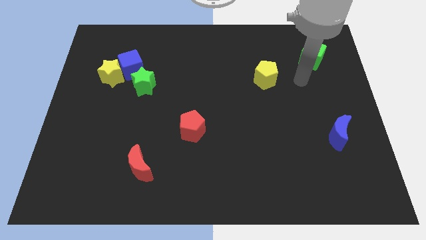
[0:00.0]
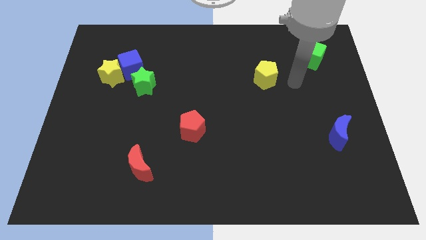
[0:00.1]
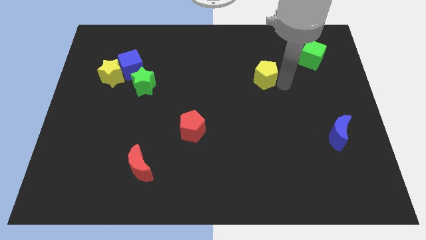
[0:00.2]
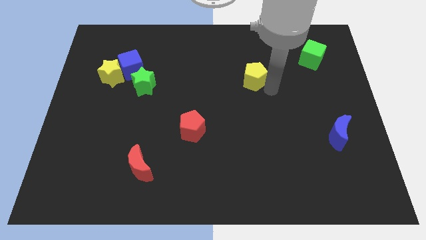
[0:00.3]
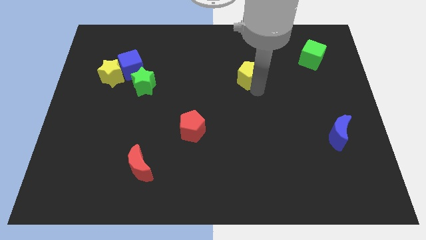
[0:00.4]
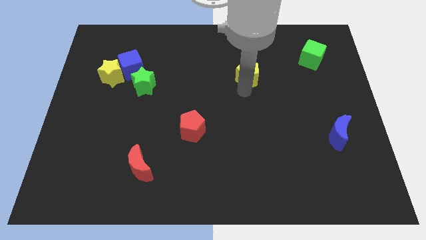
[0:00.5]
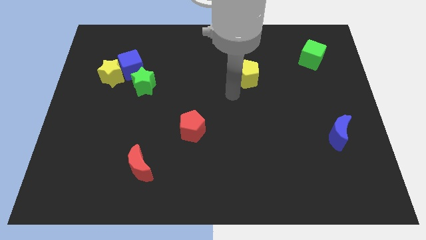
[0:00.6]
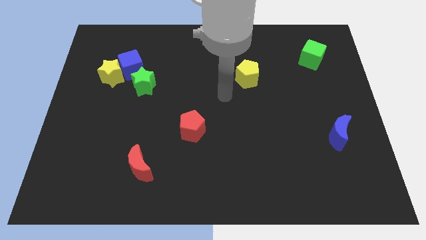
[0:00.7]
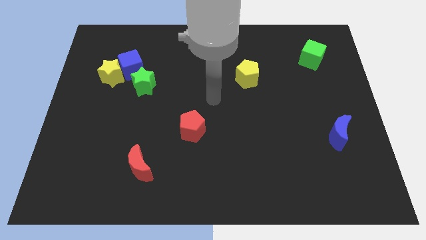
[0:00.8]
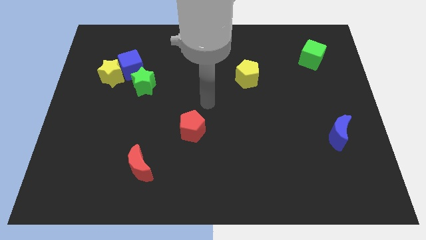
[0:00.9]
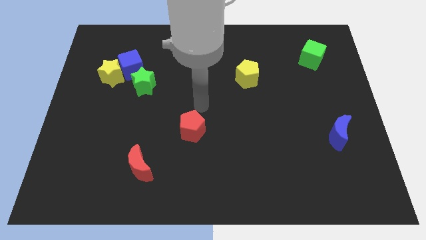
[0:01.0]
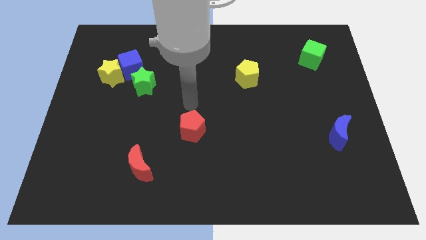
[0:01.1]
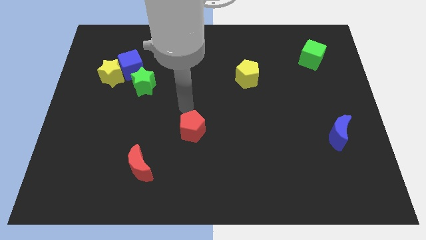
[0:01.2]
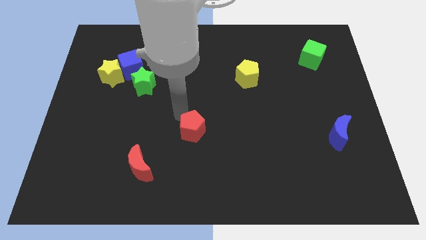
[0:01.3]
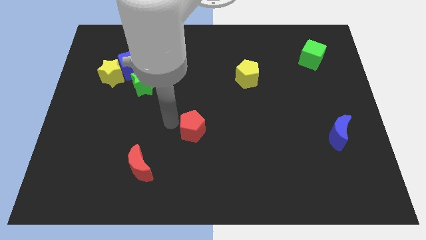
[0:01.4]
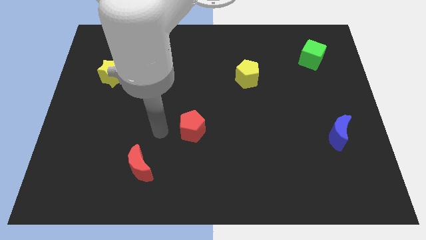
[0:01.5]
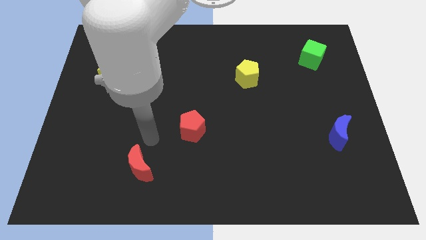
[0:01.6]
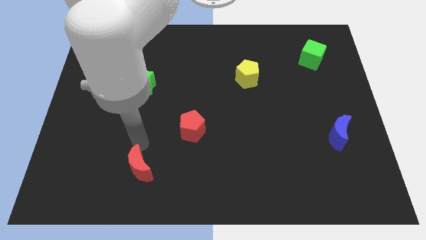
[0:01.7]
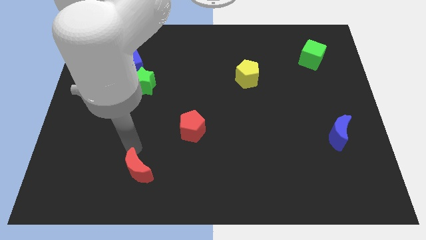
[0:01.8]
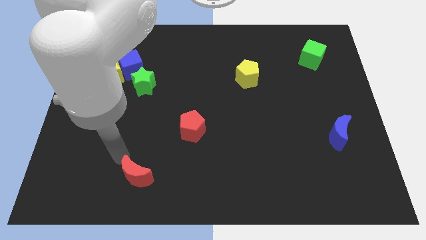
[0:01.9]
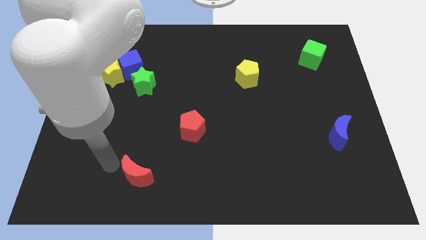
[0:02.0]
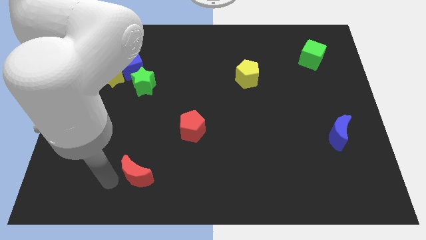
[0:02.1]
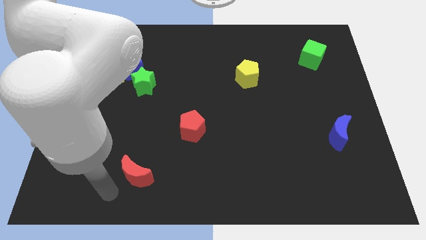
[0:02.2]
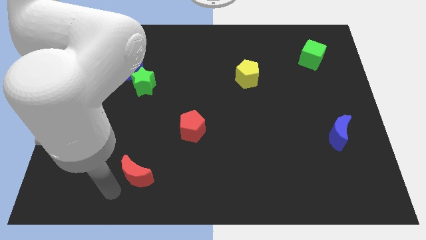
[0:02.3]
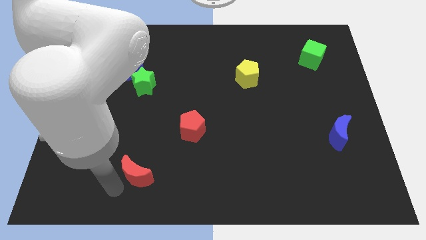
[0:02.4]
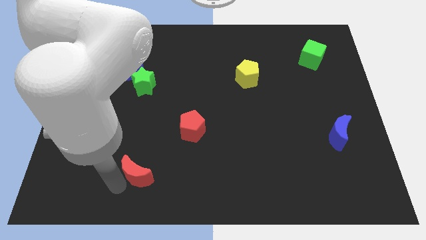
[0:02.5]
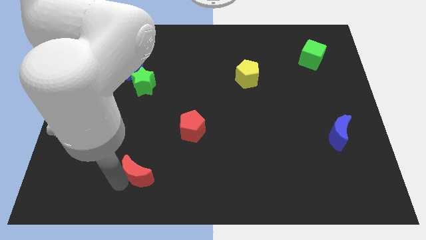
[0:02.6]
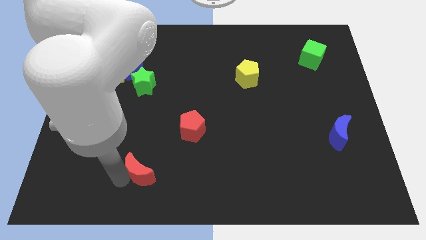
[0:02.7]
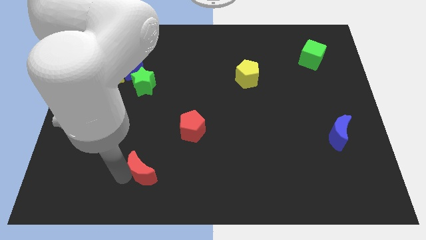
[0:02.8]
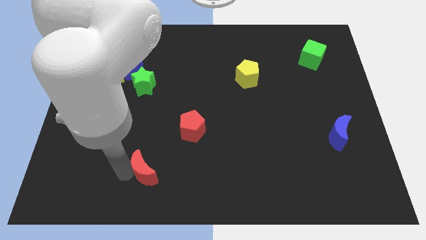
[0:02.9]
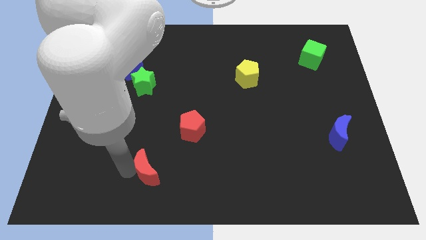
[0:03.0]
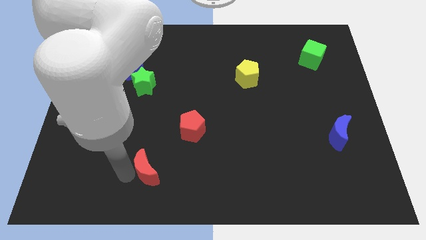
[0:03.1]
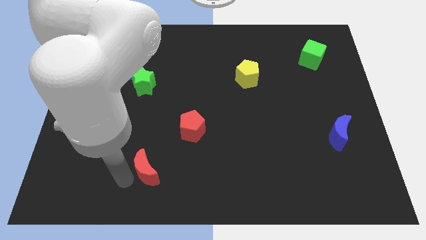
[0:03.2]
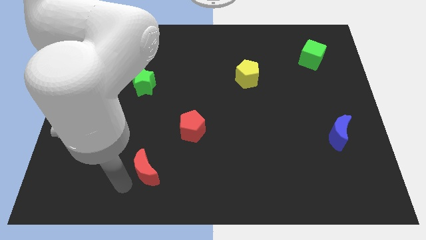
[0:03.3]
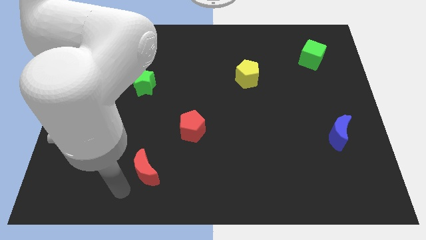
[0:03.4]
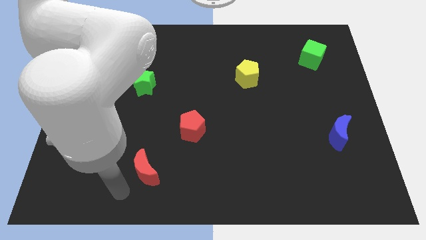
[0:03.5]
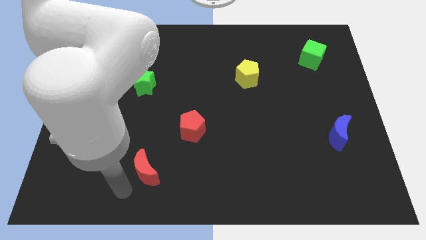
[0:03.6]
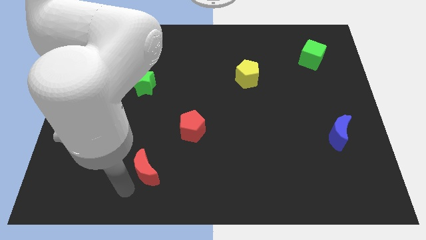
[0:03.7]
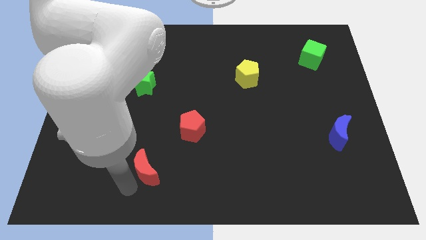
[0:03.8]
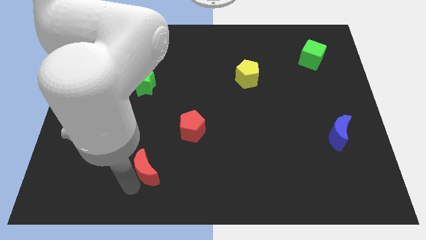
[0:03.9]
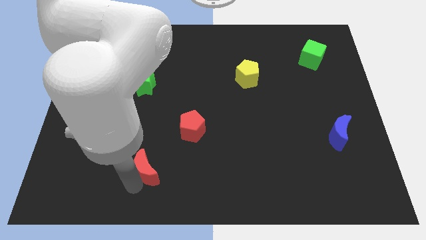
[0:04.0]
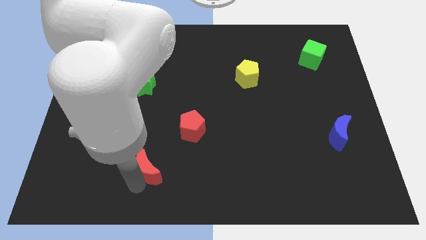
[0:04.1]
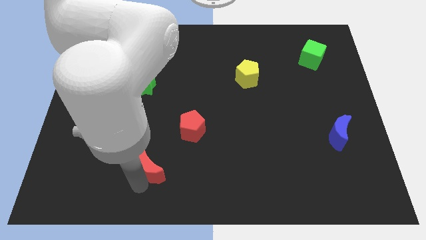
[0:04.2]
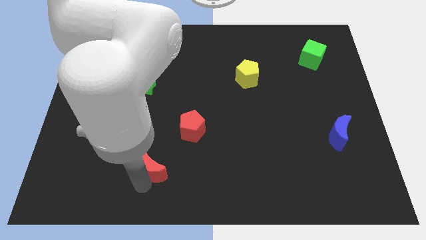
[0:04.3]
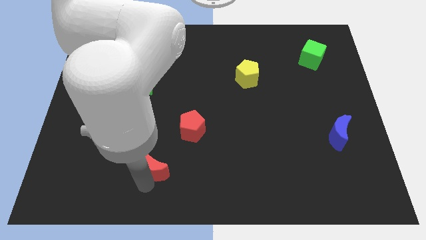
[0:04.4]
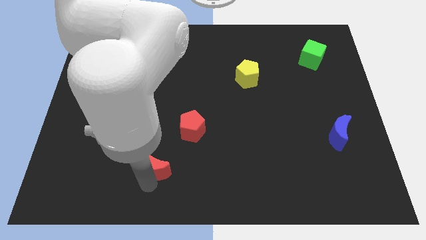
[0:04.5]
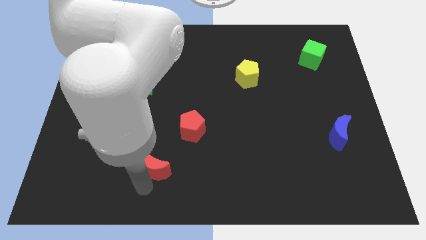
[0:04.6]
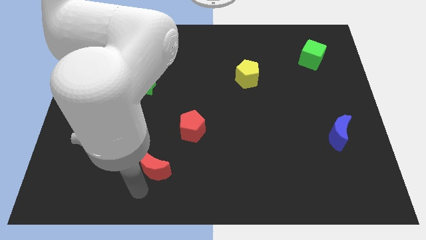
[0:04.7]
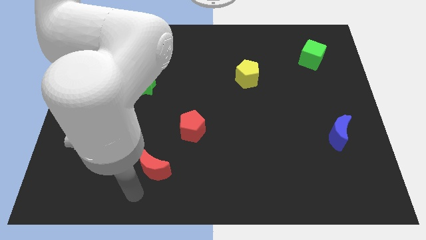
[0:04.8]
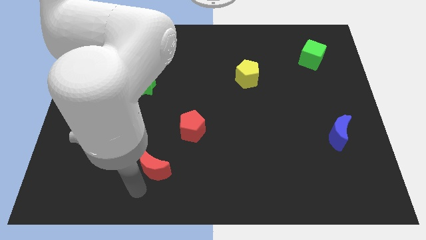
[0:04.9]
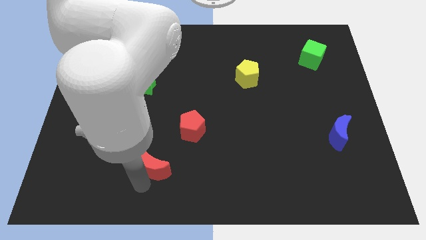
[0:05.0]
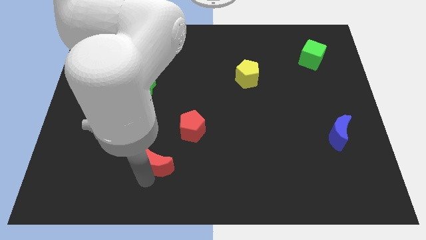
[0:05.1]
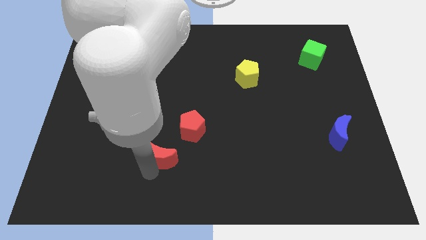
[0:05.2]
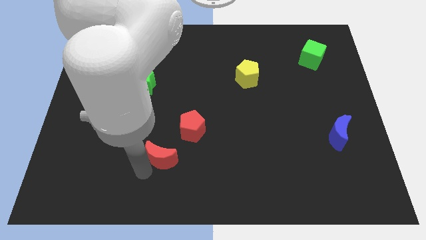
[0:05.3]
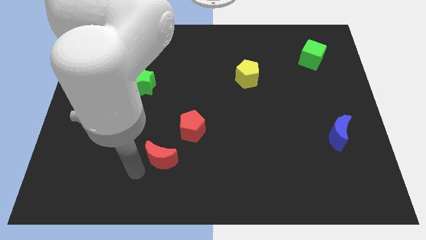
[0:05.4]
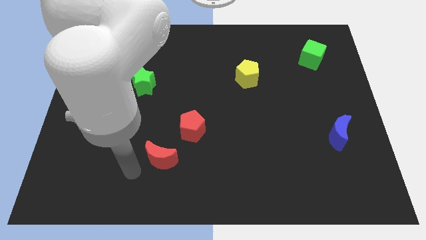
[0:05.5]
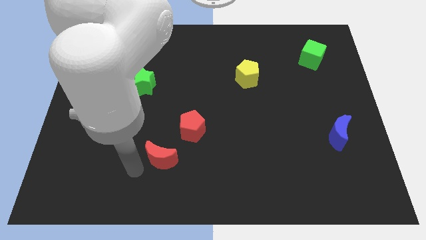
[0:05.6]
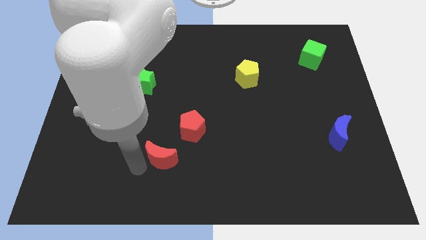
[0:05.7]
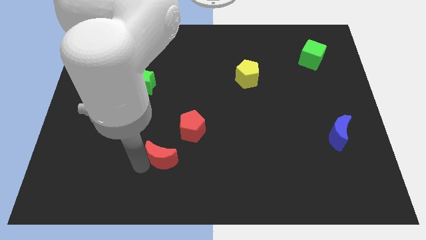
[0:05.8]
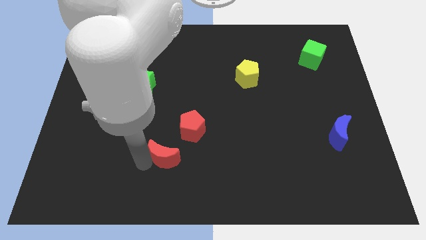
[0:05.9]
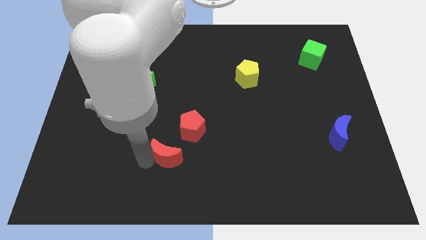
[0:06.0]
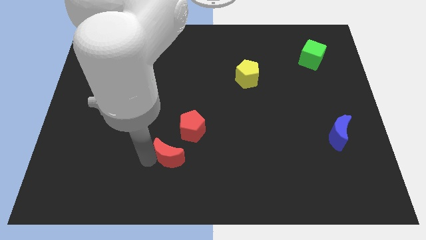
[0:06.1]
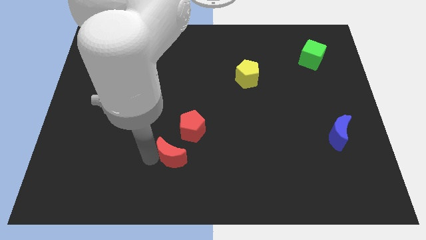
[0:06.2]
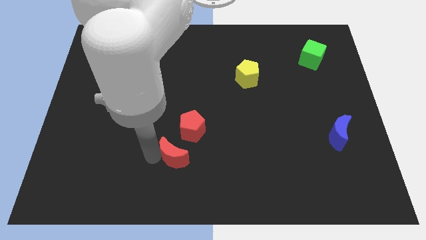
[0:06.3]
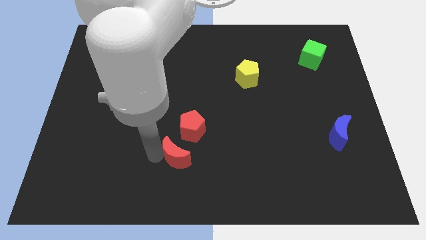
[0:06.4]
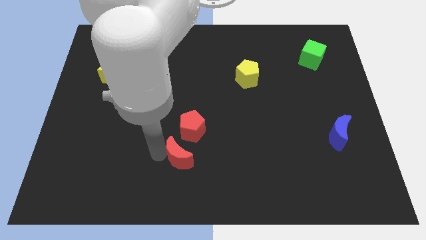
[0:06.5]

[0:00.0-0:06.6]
slightly move the red moon diagonally upwards and right

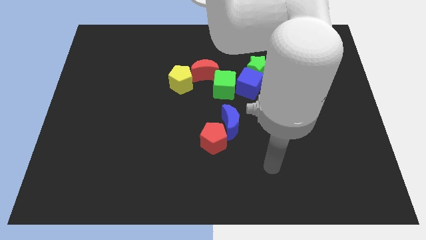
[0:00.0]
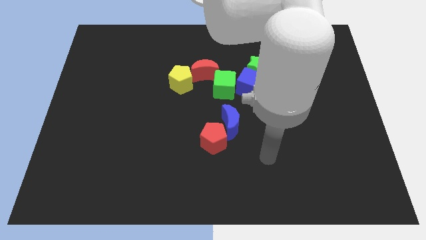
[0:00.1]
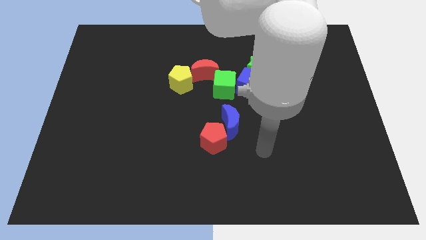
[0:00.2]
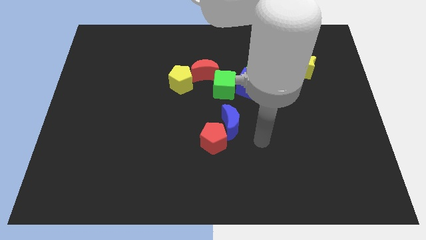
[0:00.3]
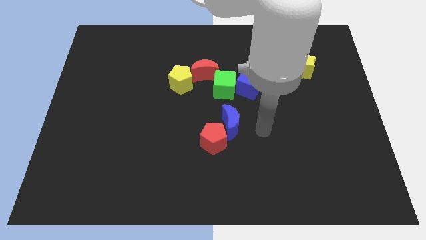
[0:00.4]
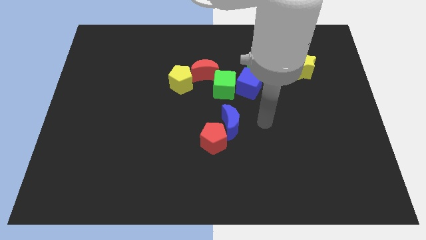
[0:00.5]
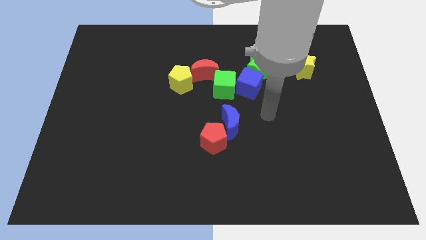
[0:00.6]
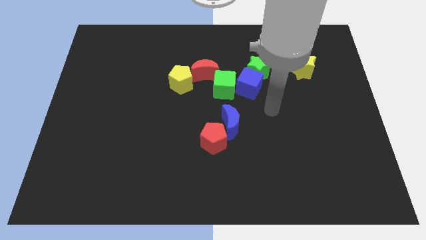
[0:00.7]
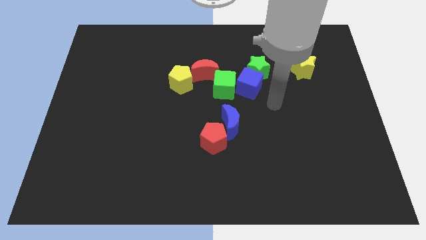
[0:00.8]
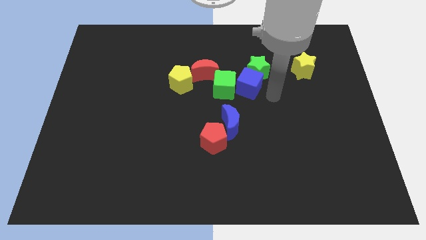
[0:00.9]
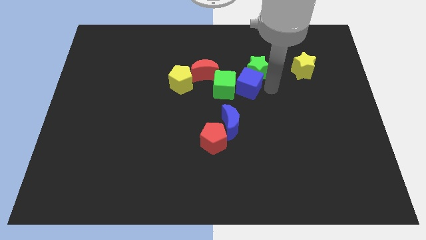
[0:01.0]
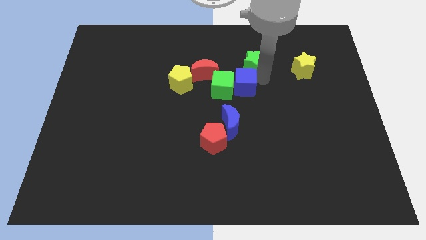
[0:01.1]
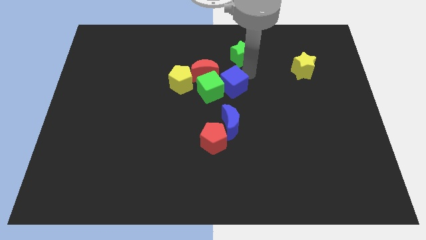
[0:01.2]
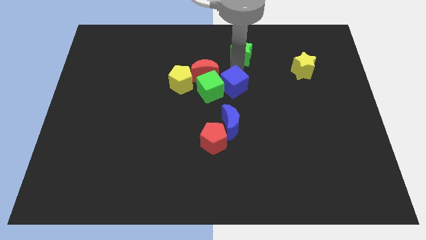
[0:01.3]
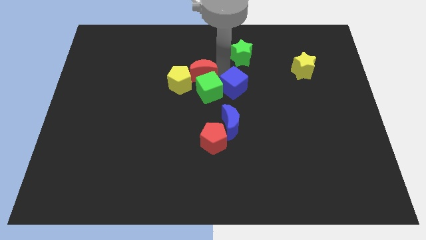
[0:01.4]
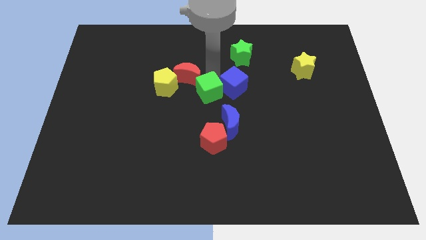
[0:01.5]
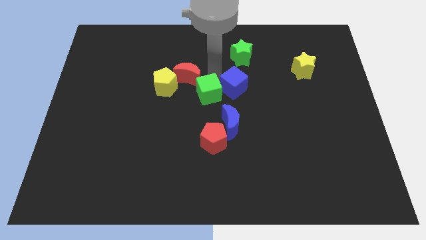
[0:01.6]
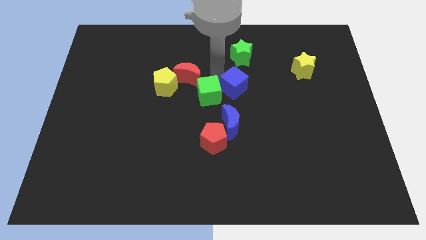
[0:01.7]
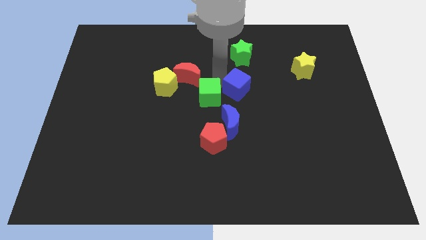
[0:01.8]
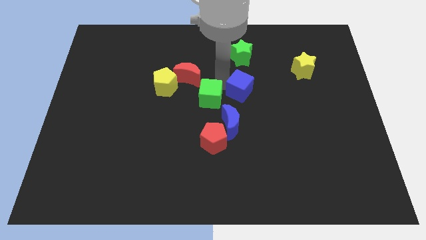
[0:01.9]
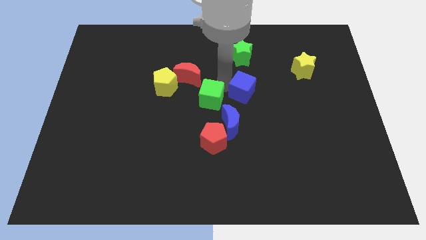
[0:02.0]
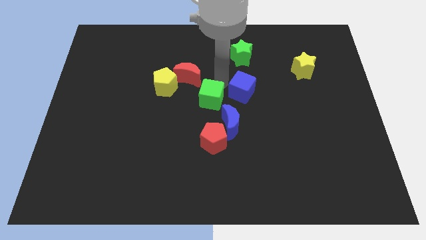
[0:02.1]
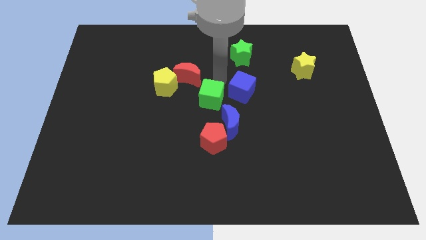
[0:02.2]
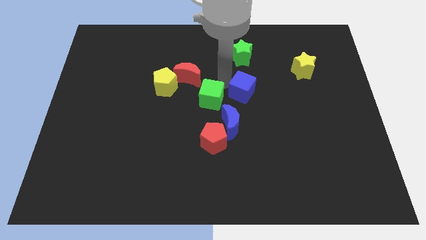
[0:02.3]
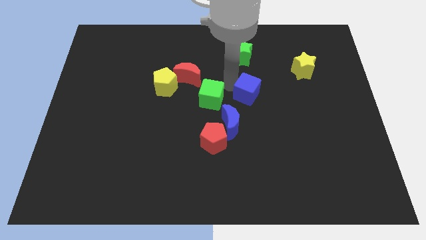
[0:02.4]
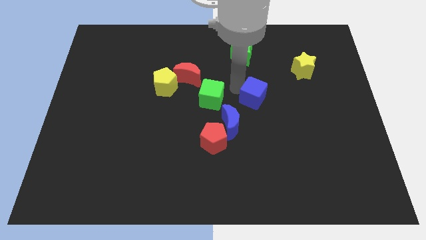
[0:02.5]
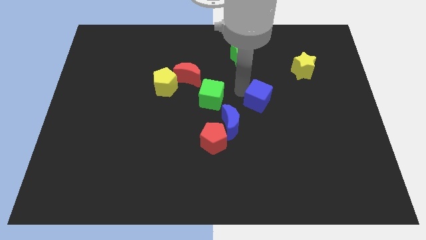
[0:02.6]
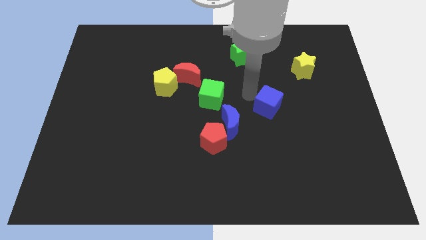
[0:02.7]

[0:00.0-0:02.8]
move the blue cube somewhat down and to the right diagonally
